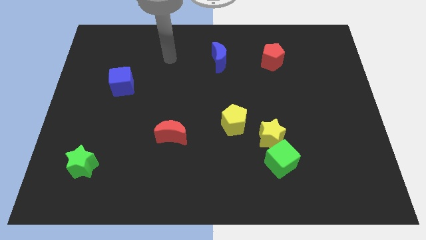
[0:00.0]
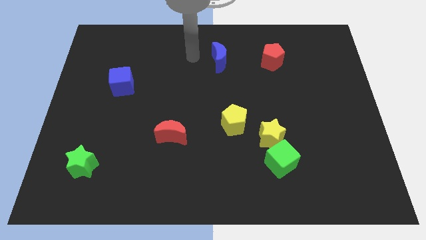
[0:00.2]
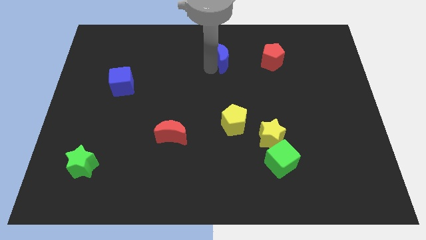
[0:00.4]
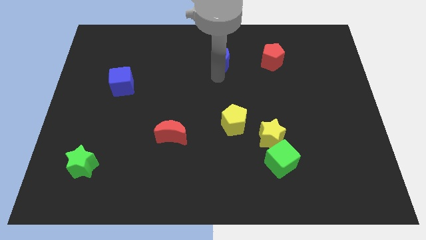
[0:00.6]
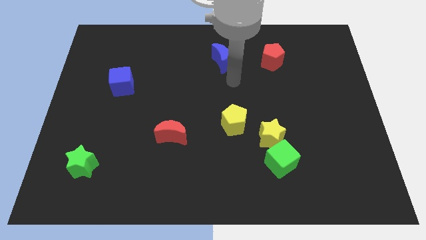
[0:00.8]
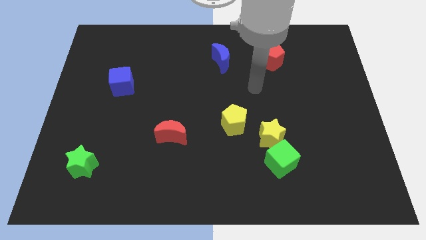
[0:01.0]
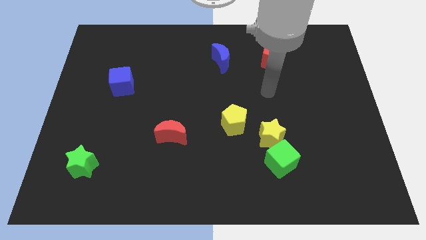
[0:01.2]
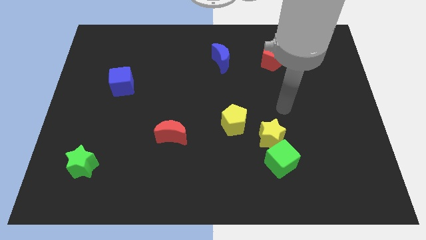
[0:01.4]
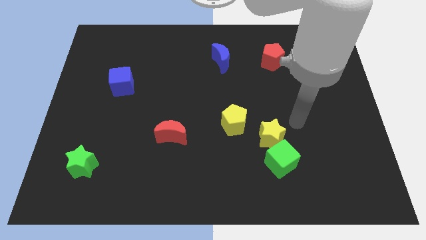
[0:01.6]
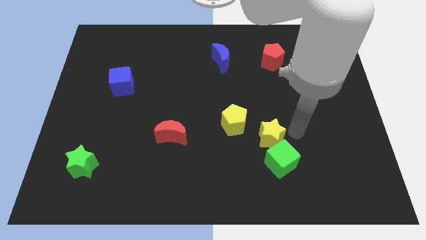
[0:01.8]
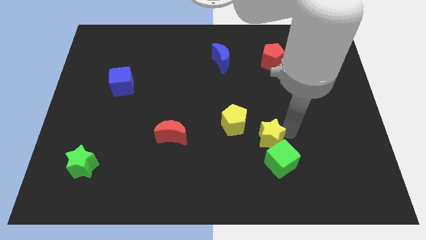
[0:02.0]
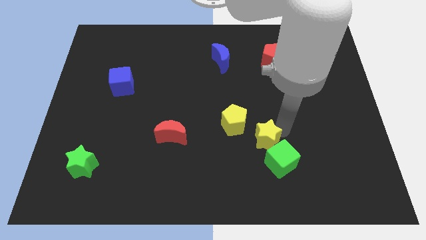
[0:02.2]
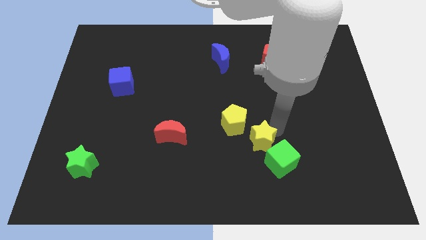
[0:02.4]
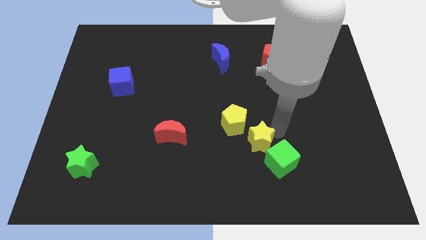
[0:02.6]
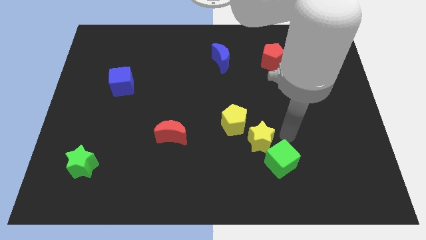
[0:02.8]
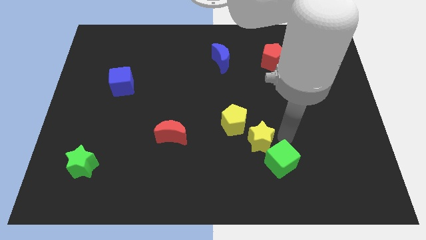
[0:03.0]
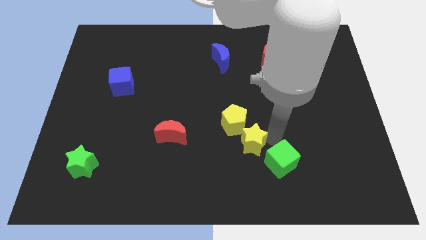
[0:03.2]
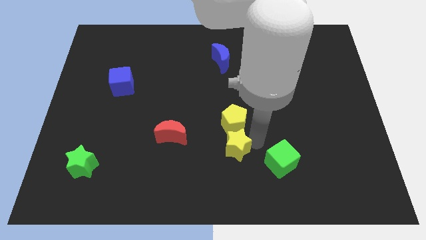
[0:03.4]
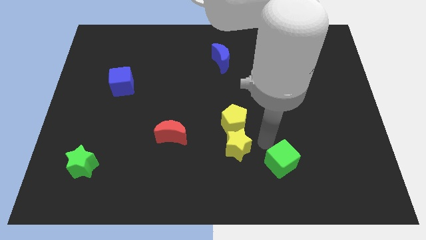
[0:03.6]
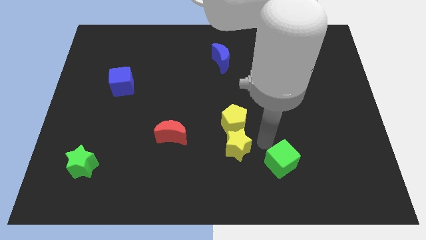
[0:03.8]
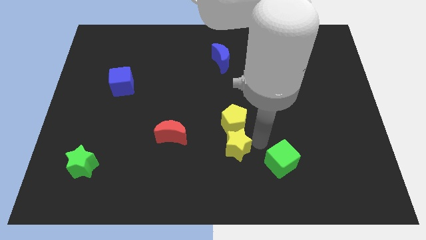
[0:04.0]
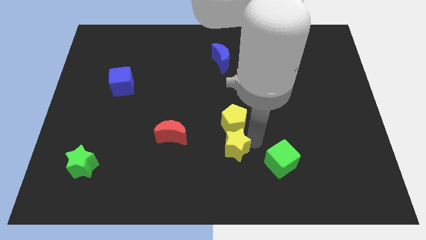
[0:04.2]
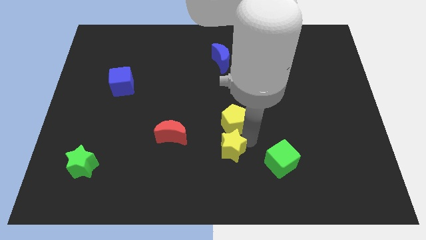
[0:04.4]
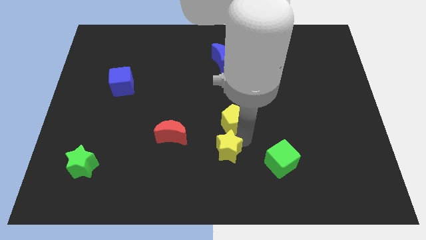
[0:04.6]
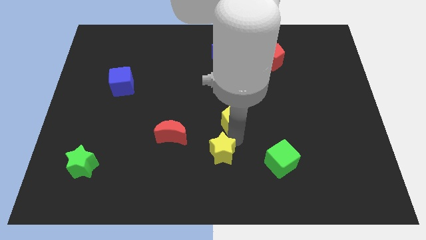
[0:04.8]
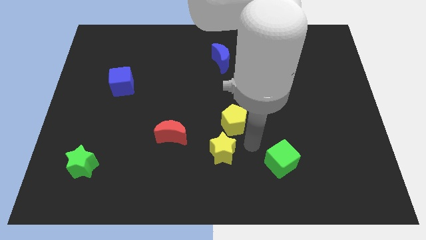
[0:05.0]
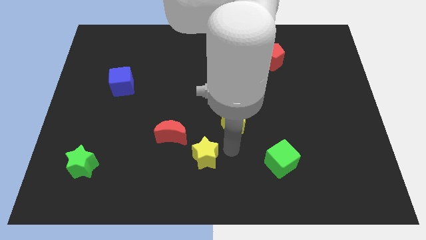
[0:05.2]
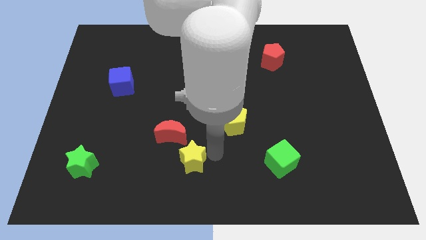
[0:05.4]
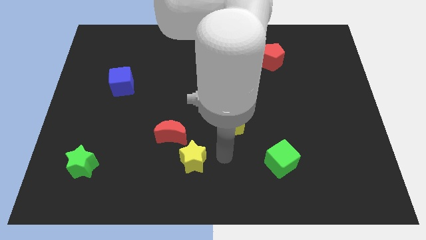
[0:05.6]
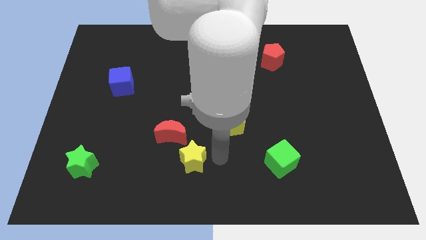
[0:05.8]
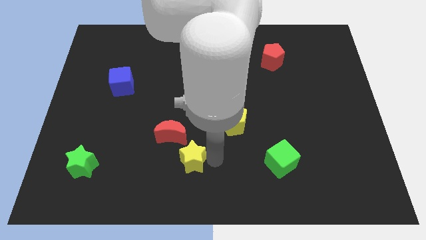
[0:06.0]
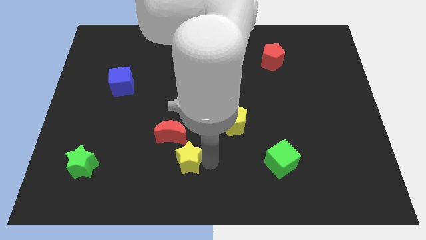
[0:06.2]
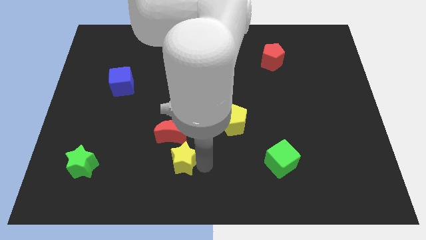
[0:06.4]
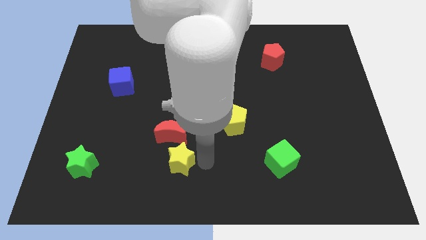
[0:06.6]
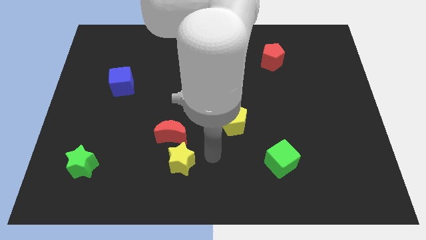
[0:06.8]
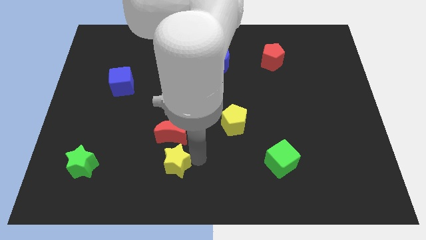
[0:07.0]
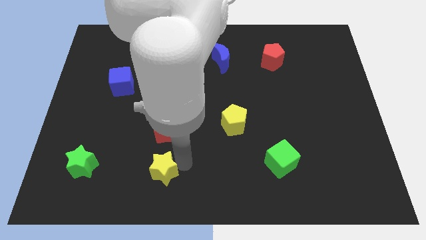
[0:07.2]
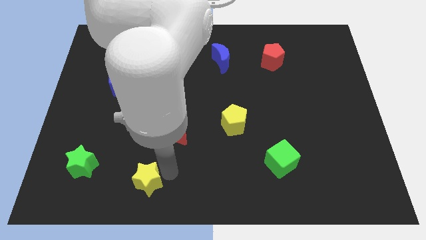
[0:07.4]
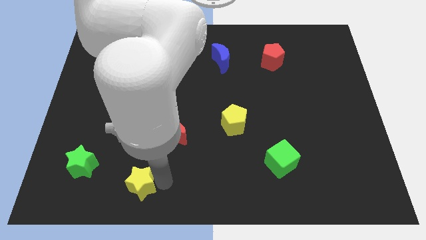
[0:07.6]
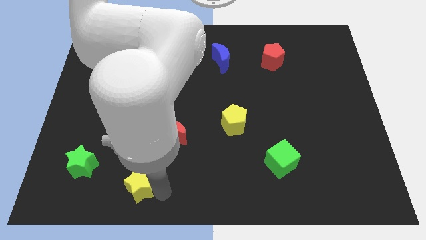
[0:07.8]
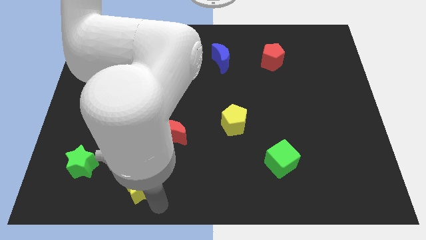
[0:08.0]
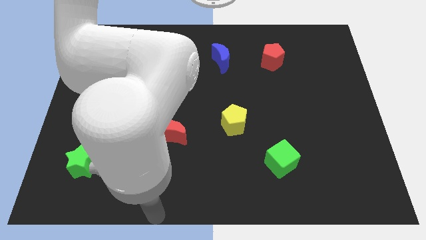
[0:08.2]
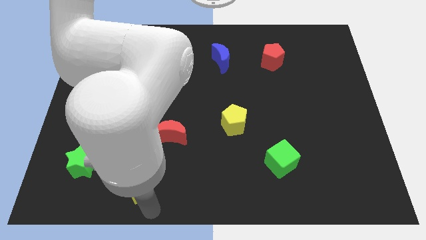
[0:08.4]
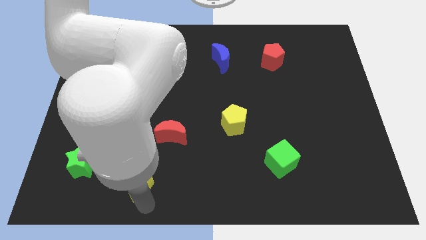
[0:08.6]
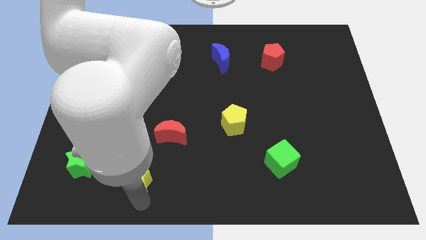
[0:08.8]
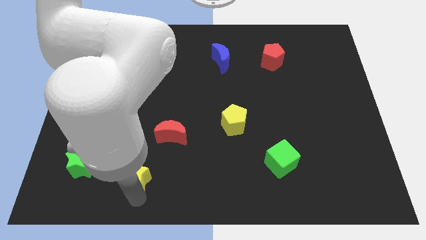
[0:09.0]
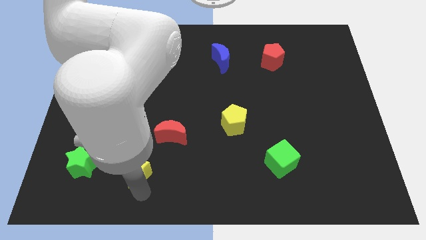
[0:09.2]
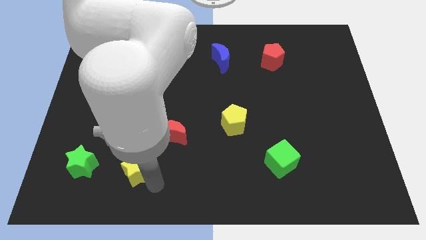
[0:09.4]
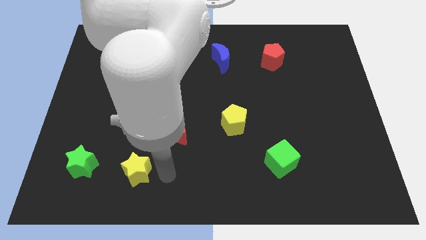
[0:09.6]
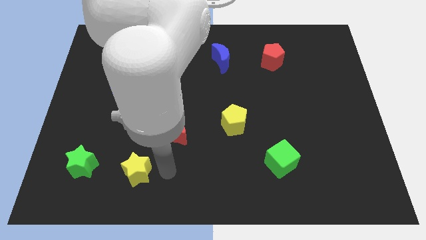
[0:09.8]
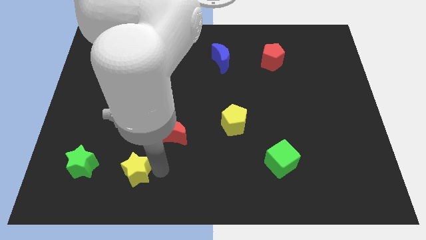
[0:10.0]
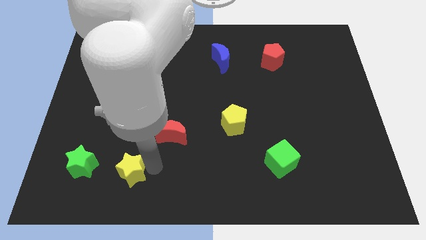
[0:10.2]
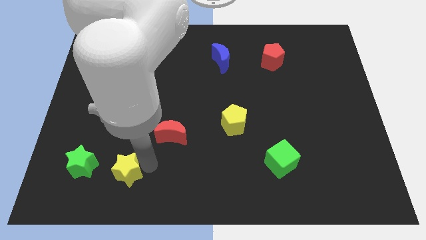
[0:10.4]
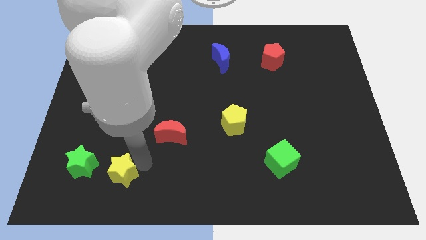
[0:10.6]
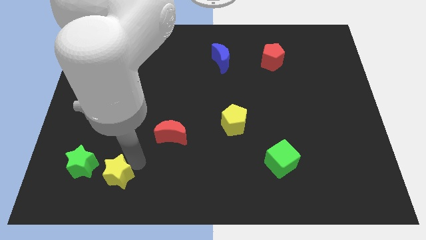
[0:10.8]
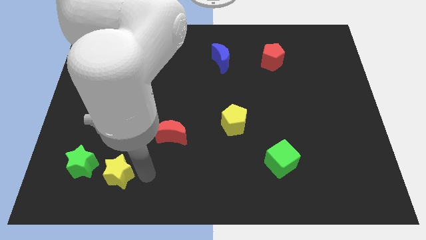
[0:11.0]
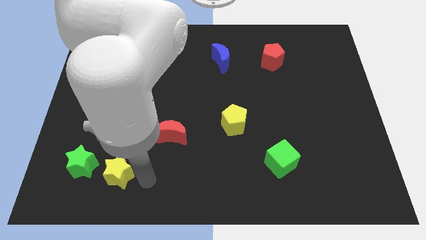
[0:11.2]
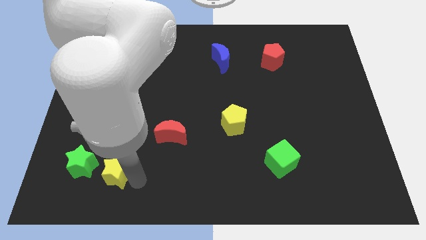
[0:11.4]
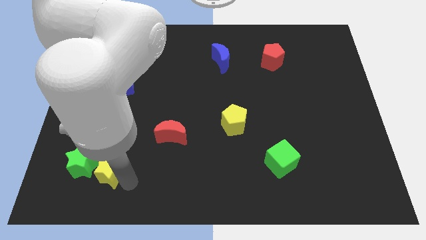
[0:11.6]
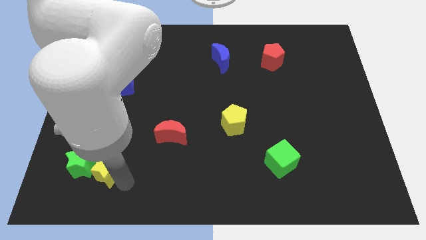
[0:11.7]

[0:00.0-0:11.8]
push the yellow star close to the green star

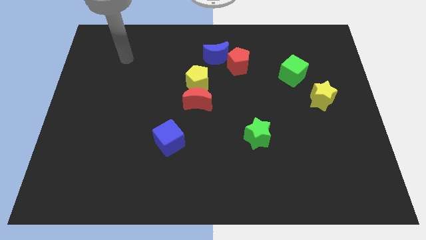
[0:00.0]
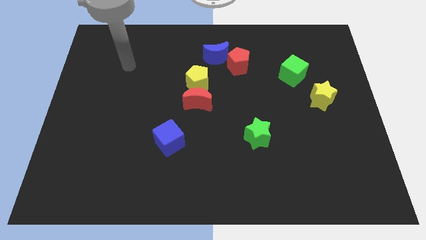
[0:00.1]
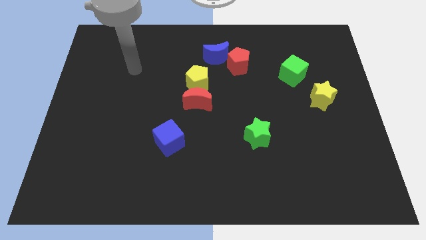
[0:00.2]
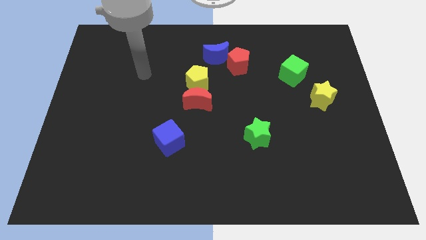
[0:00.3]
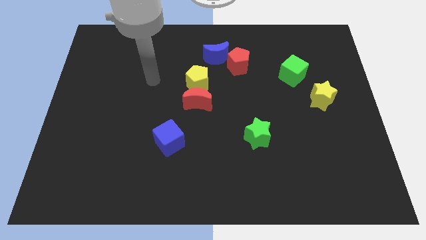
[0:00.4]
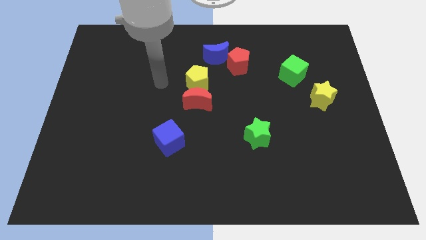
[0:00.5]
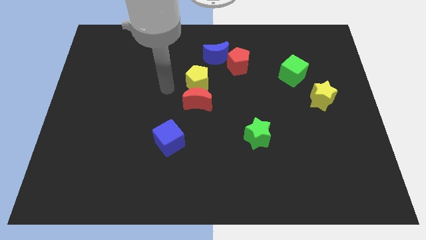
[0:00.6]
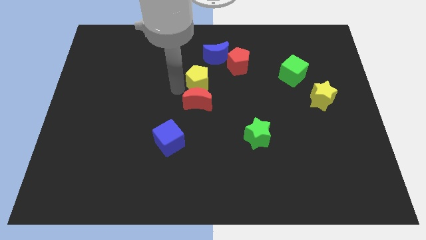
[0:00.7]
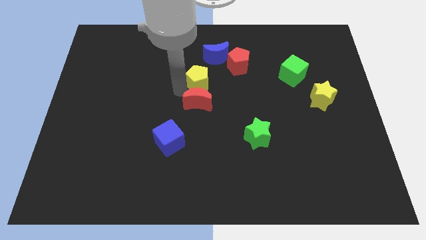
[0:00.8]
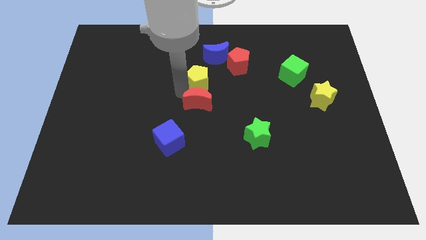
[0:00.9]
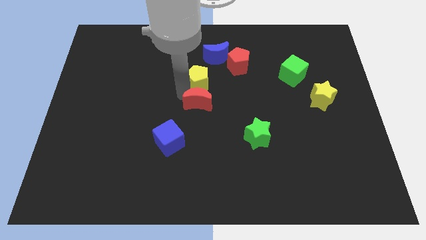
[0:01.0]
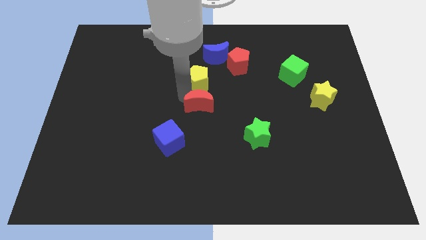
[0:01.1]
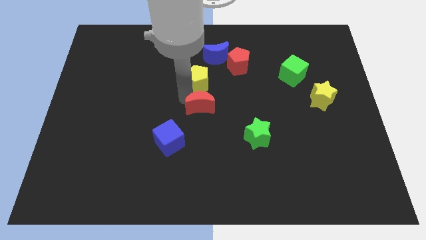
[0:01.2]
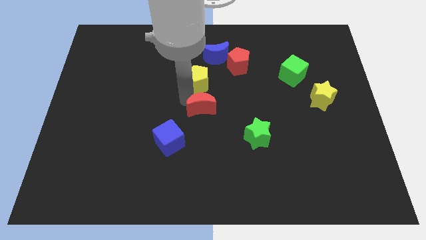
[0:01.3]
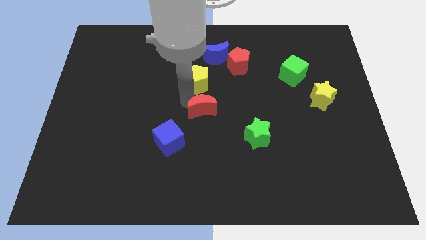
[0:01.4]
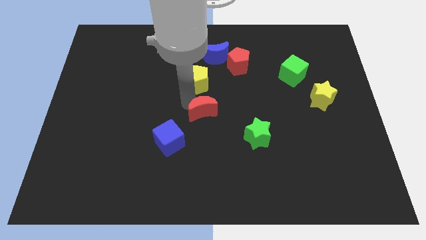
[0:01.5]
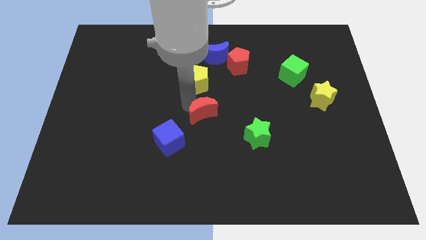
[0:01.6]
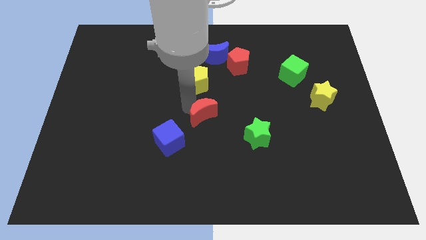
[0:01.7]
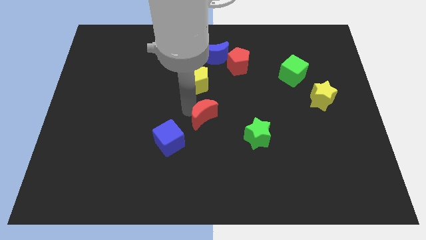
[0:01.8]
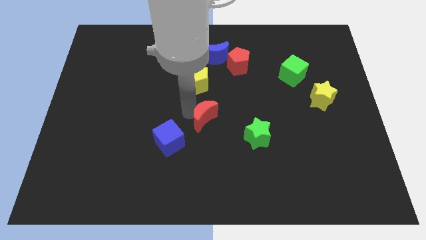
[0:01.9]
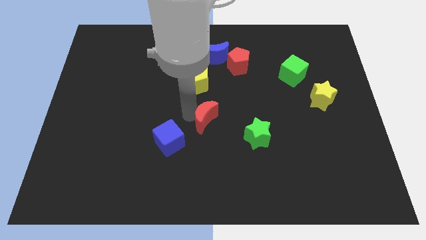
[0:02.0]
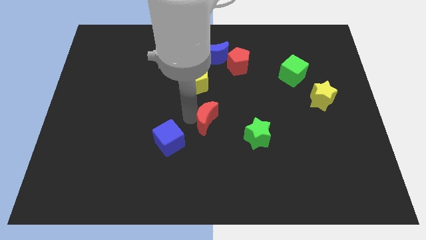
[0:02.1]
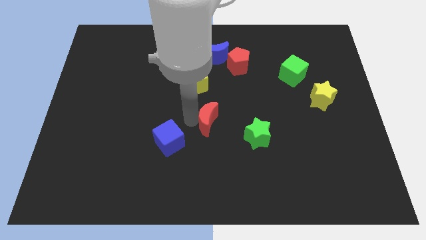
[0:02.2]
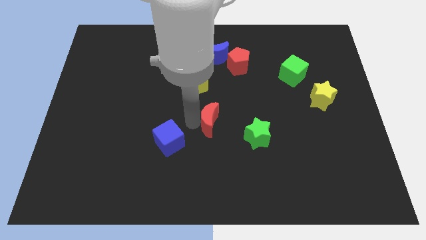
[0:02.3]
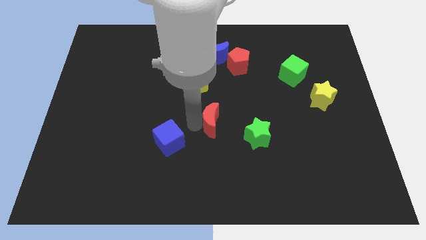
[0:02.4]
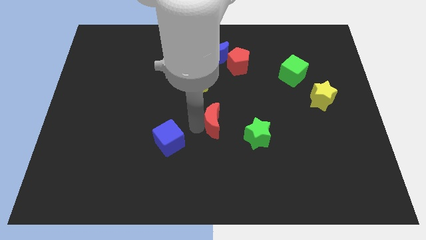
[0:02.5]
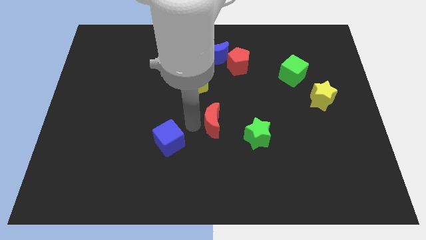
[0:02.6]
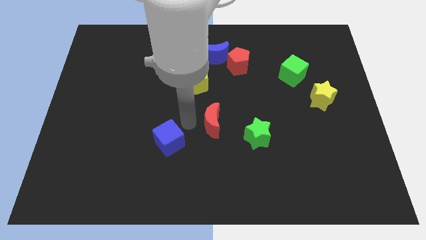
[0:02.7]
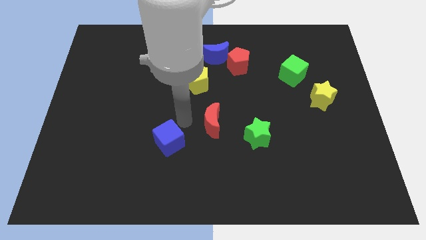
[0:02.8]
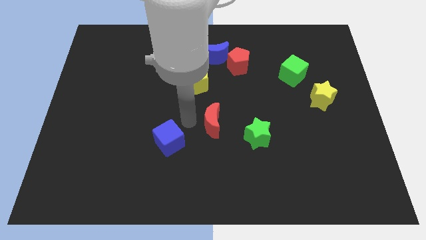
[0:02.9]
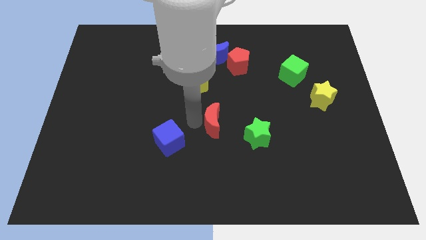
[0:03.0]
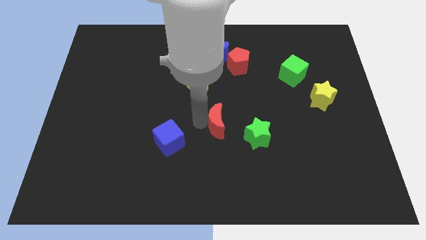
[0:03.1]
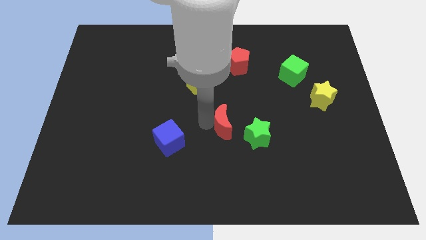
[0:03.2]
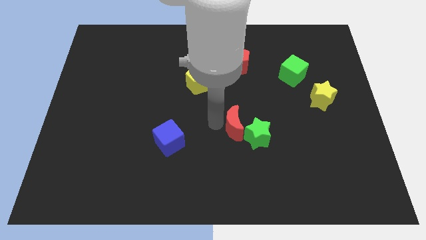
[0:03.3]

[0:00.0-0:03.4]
slide the red moon towards the green star
